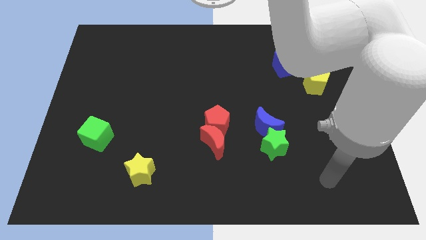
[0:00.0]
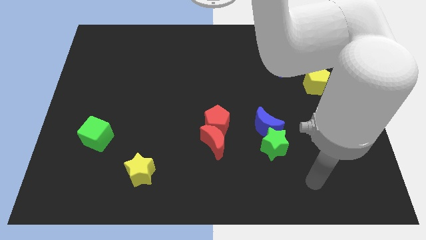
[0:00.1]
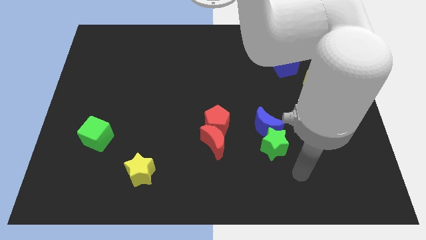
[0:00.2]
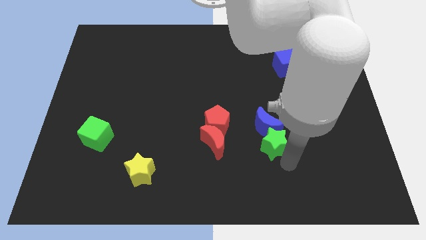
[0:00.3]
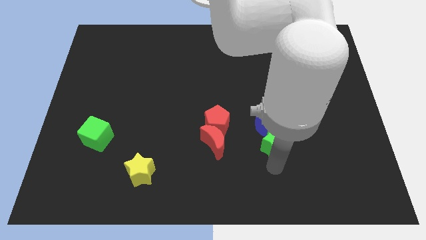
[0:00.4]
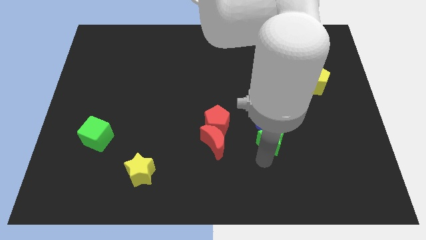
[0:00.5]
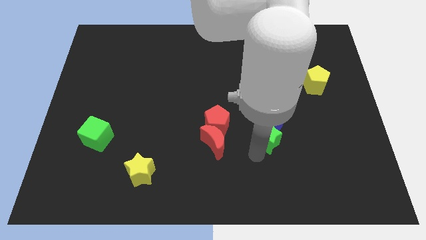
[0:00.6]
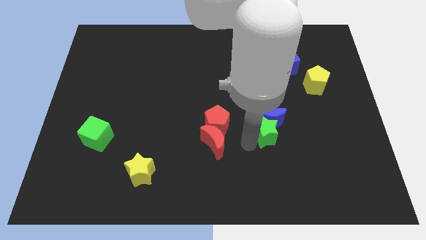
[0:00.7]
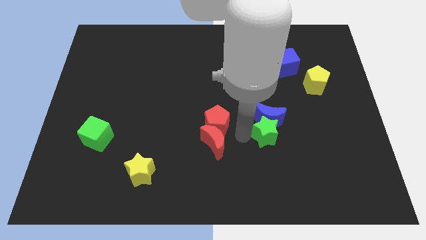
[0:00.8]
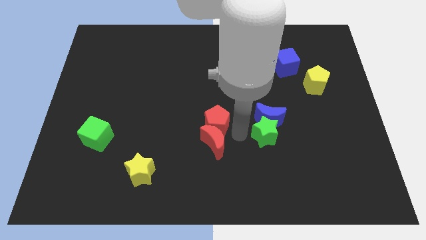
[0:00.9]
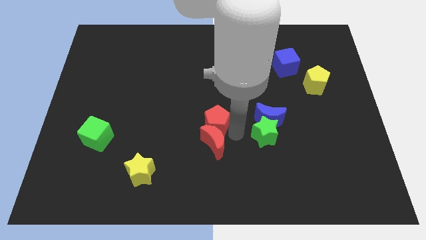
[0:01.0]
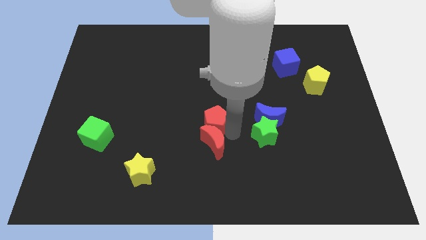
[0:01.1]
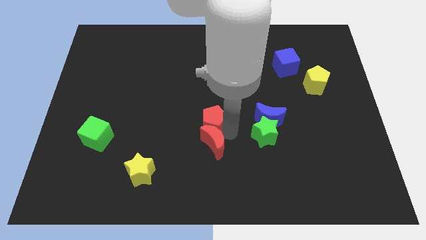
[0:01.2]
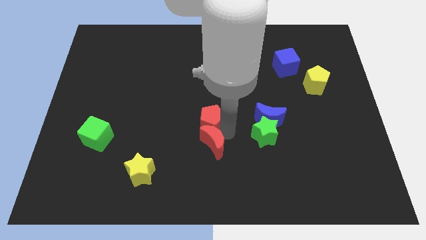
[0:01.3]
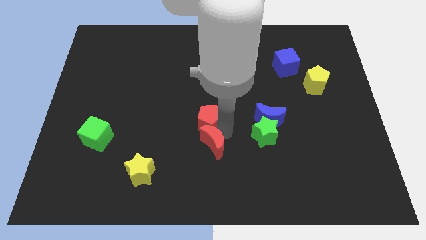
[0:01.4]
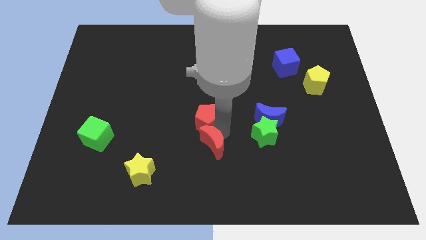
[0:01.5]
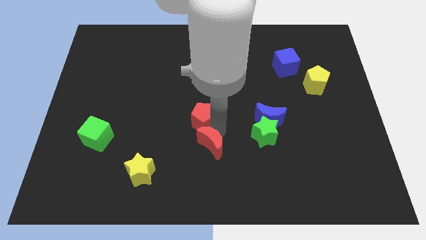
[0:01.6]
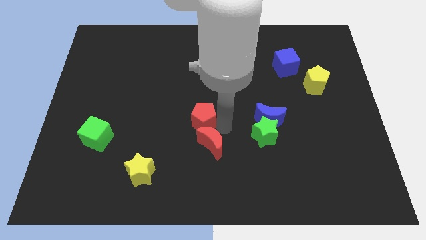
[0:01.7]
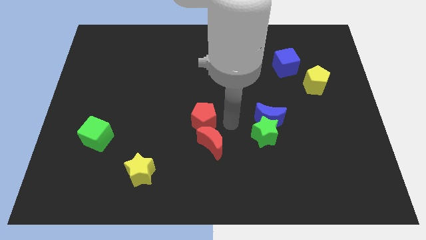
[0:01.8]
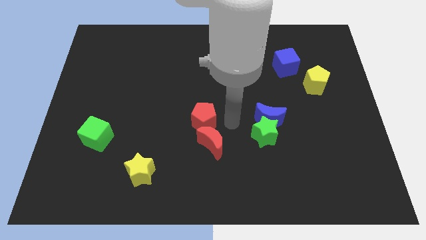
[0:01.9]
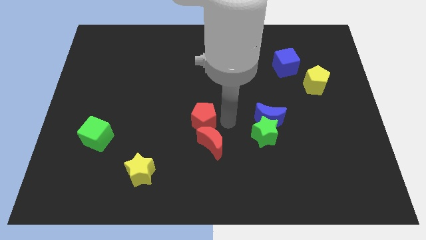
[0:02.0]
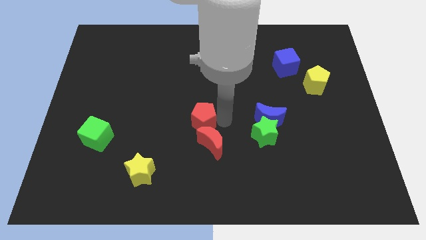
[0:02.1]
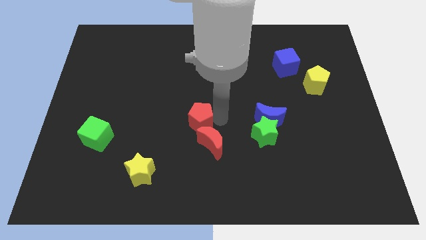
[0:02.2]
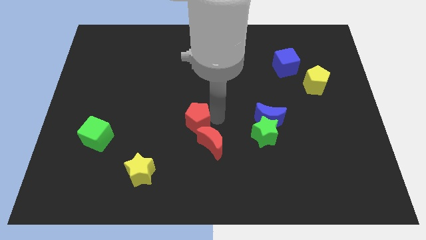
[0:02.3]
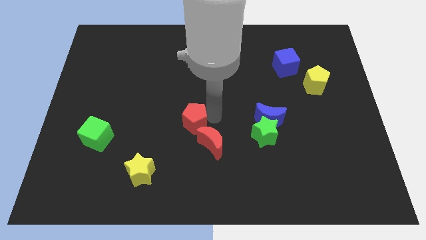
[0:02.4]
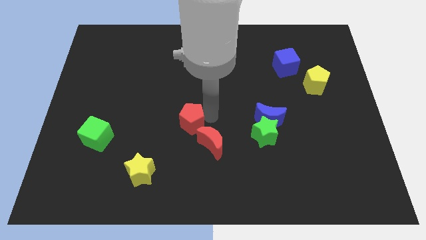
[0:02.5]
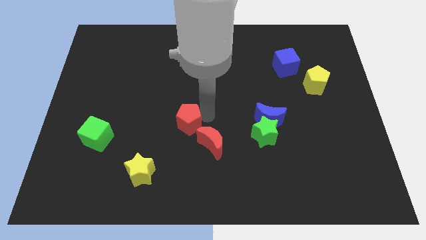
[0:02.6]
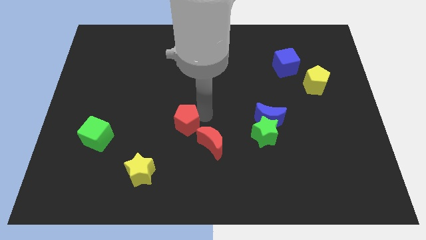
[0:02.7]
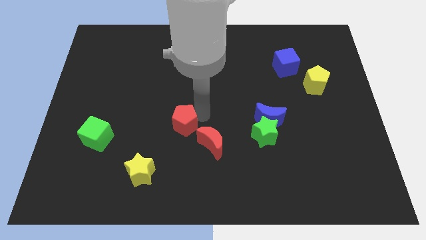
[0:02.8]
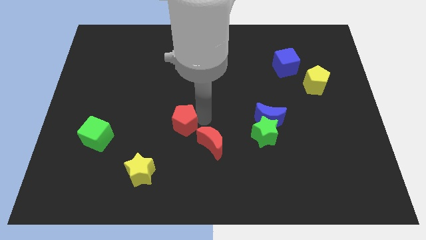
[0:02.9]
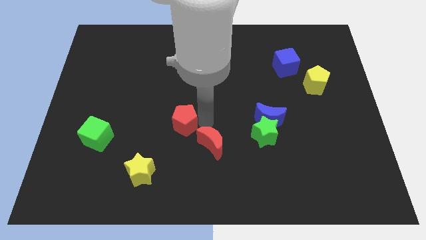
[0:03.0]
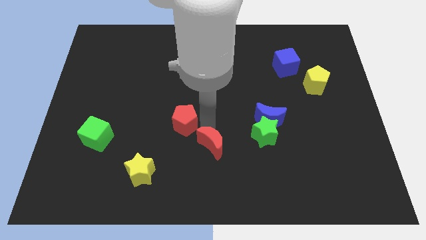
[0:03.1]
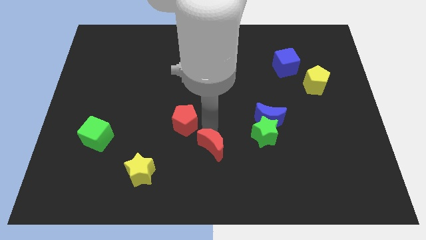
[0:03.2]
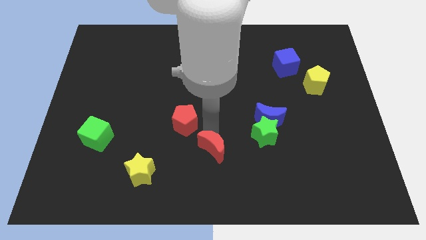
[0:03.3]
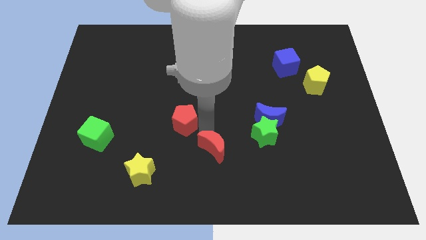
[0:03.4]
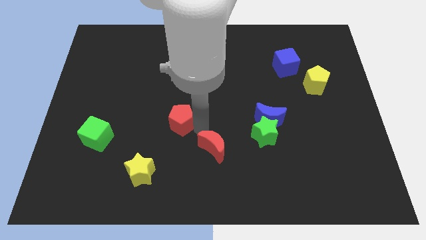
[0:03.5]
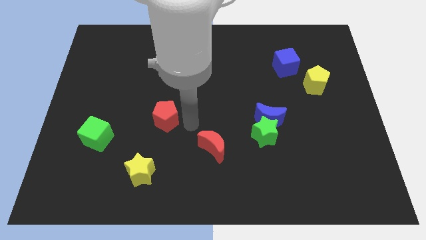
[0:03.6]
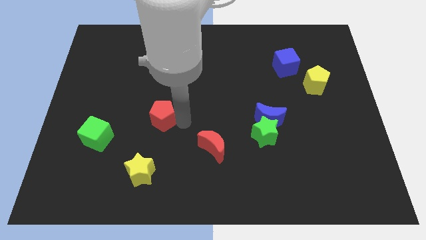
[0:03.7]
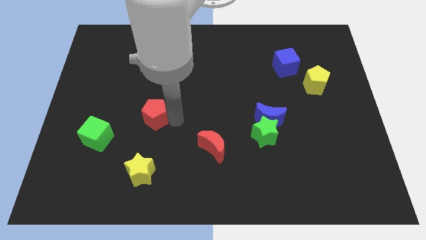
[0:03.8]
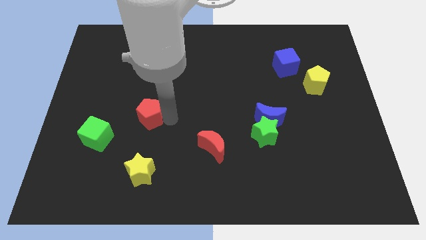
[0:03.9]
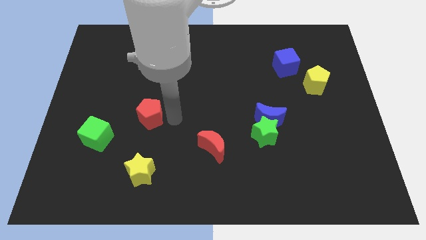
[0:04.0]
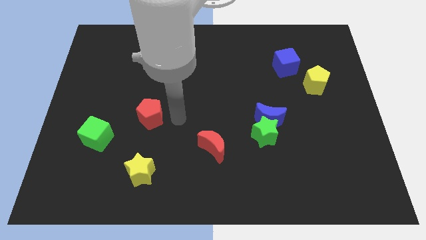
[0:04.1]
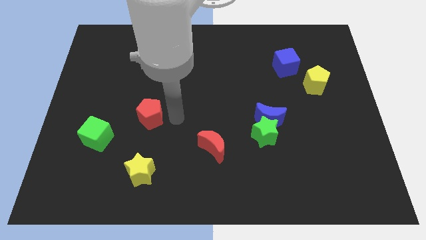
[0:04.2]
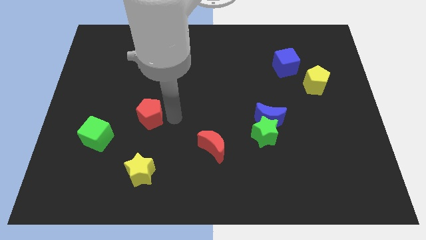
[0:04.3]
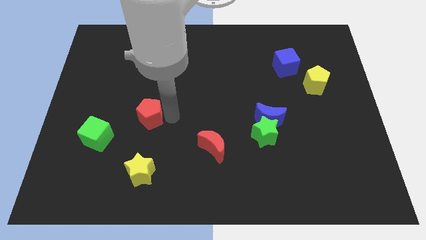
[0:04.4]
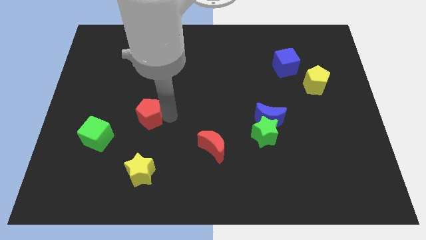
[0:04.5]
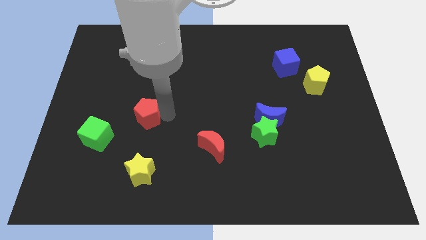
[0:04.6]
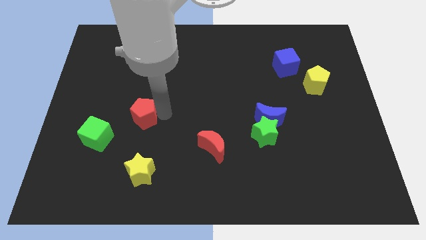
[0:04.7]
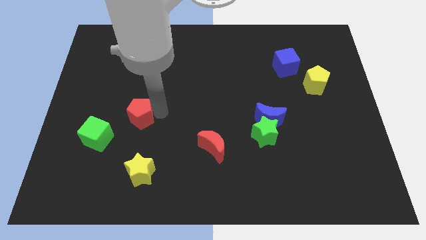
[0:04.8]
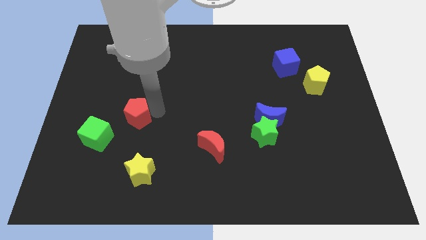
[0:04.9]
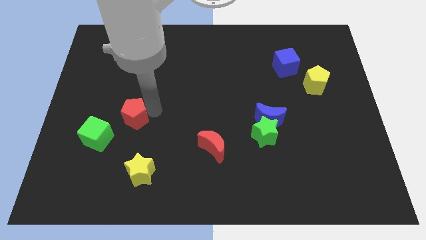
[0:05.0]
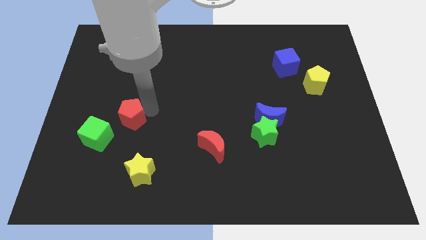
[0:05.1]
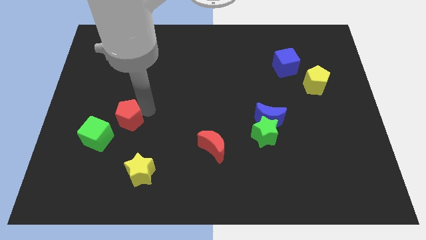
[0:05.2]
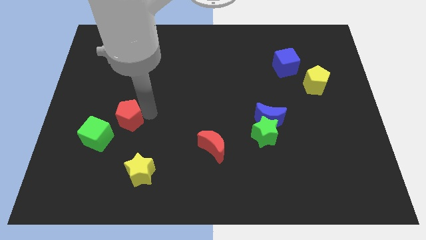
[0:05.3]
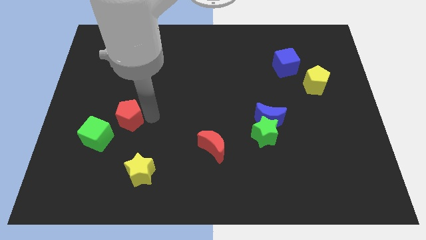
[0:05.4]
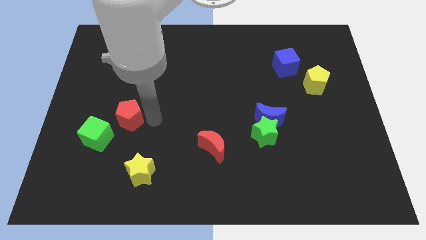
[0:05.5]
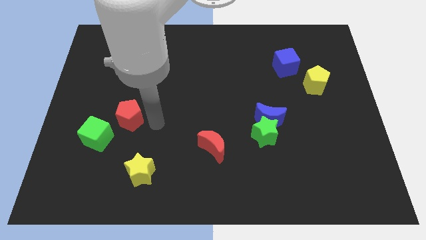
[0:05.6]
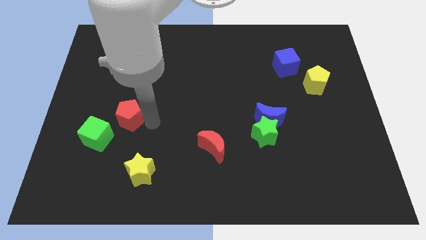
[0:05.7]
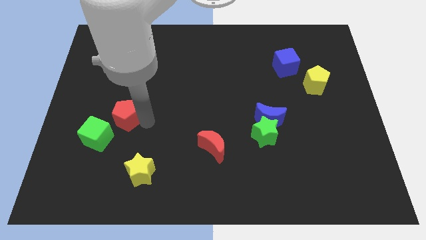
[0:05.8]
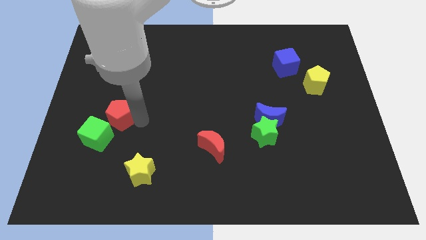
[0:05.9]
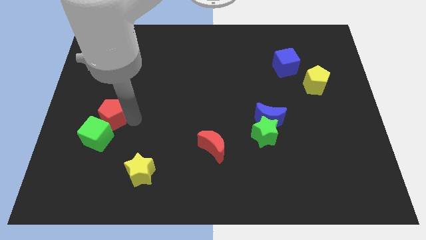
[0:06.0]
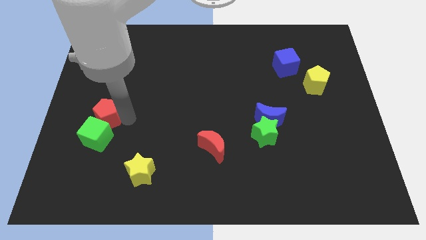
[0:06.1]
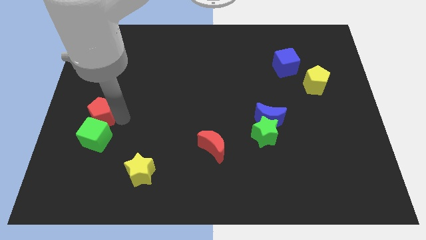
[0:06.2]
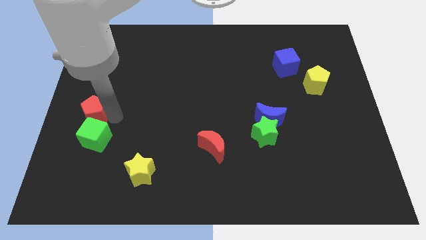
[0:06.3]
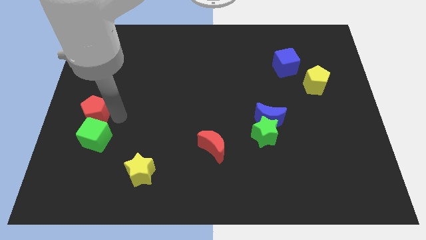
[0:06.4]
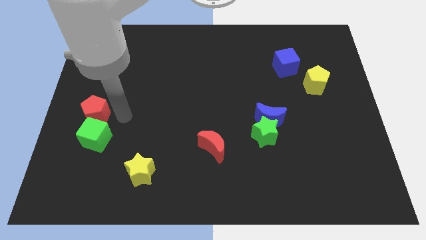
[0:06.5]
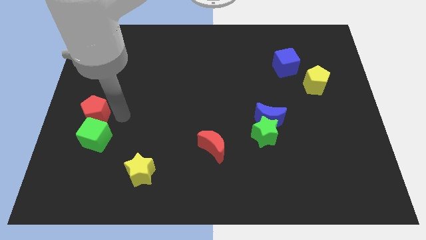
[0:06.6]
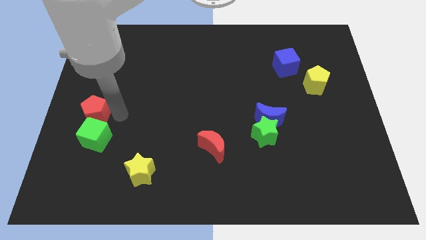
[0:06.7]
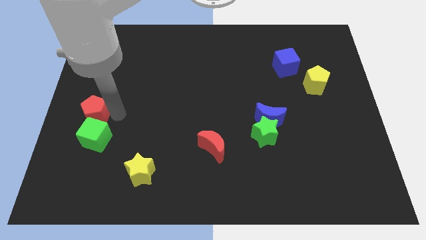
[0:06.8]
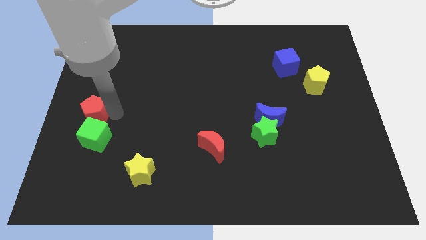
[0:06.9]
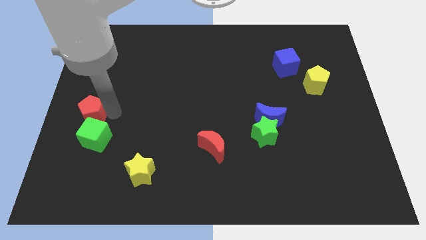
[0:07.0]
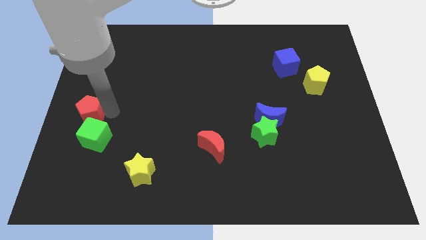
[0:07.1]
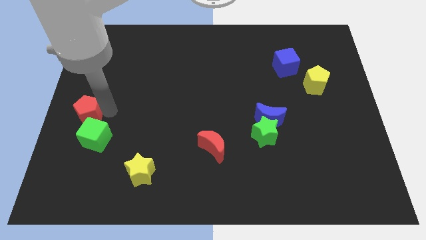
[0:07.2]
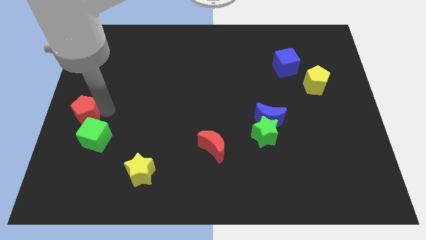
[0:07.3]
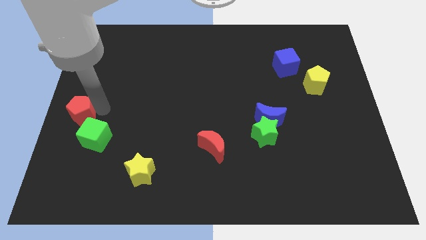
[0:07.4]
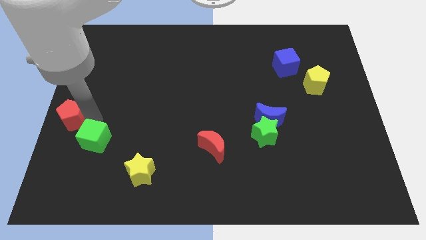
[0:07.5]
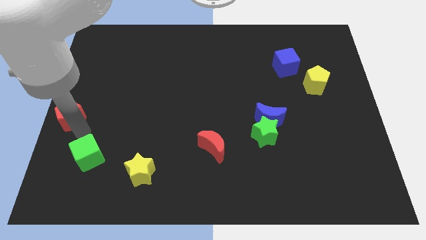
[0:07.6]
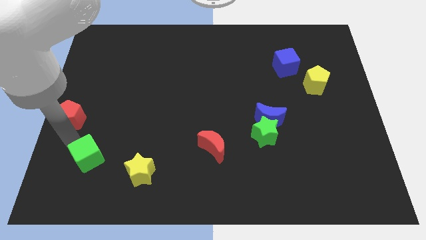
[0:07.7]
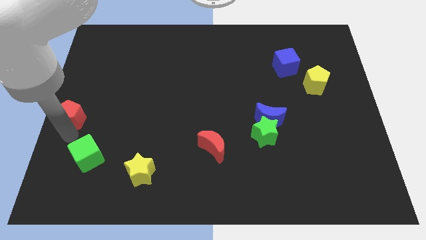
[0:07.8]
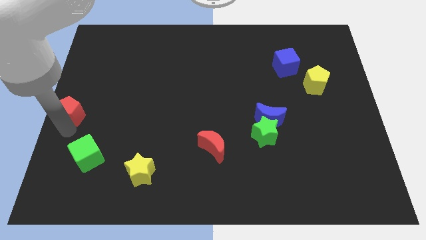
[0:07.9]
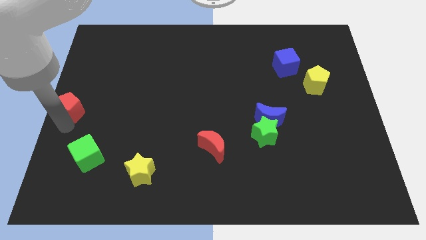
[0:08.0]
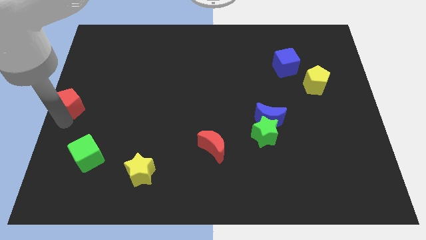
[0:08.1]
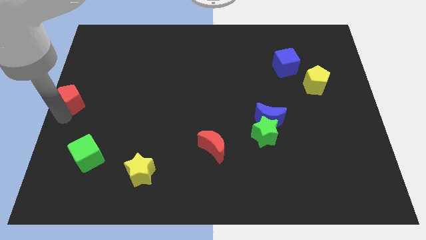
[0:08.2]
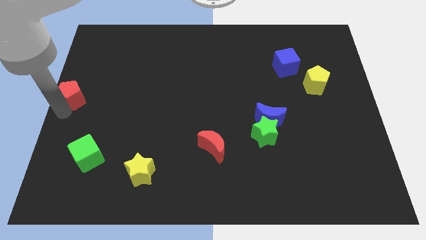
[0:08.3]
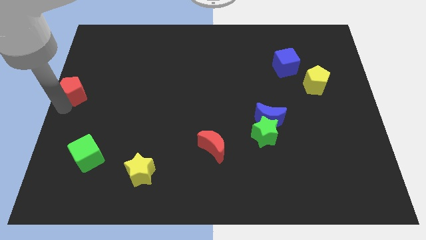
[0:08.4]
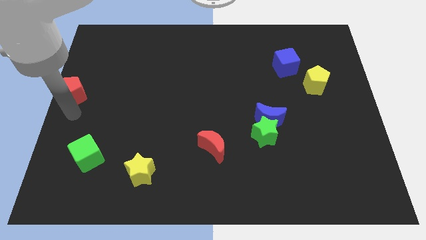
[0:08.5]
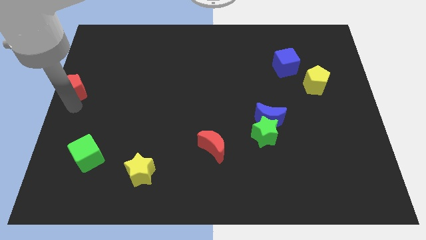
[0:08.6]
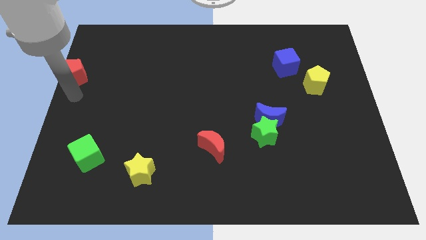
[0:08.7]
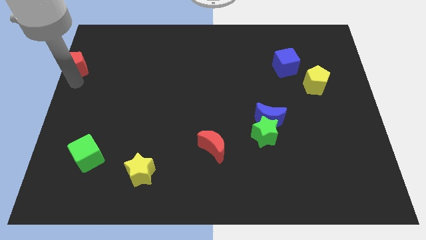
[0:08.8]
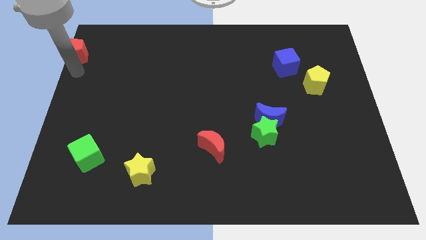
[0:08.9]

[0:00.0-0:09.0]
put the red pentagon to the top left corner
